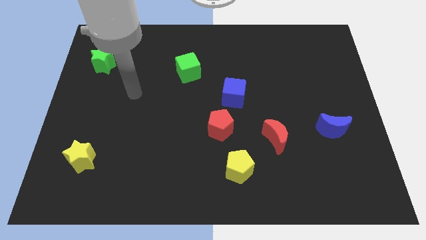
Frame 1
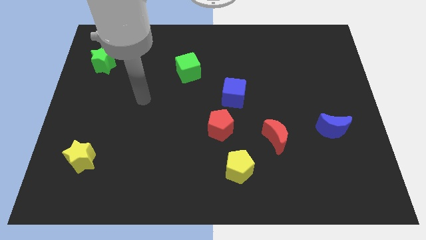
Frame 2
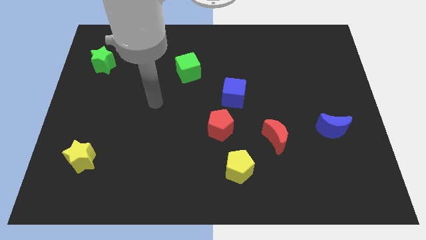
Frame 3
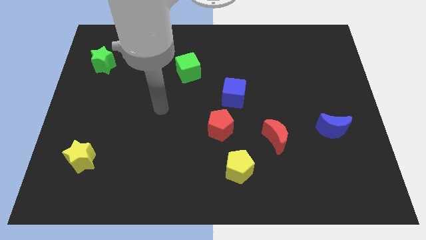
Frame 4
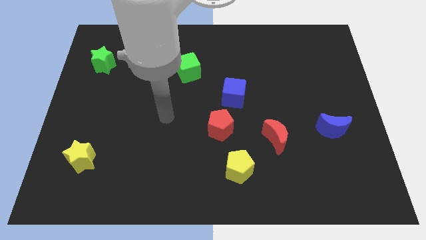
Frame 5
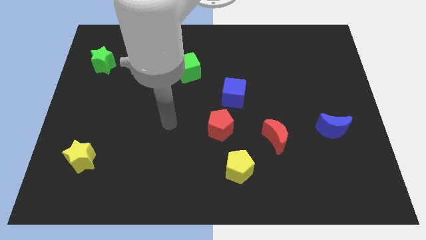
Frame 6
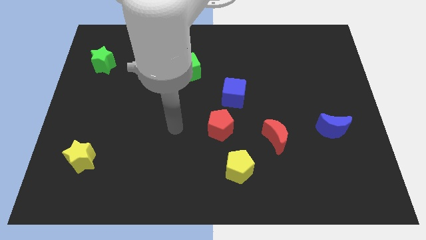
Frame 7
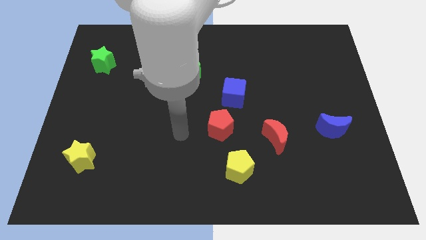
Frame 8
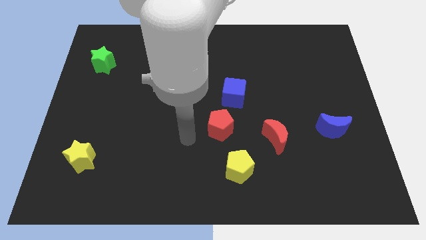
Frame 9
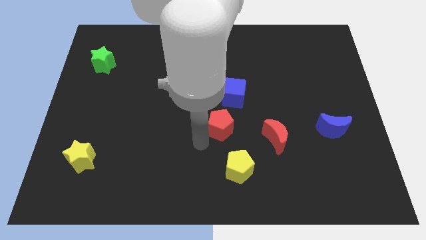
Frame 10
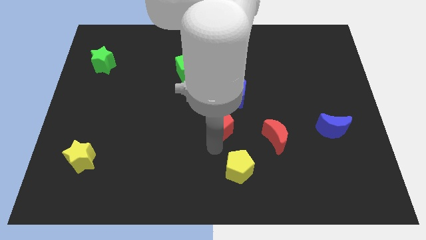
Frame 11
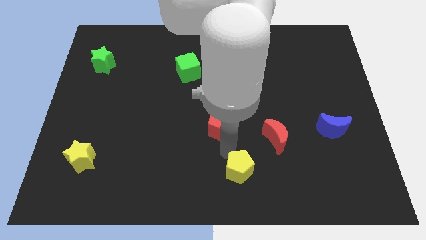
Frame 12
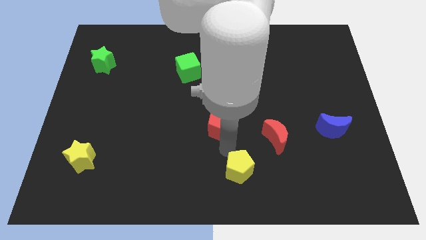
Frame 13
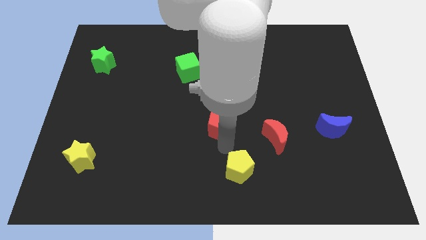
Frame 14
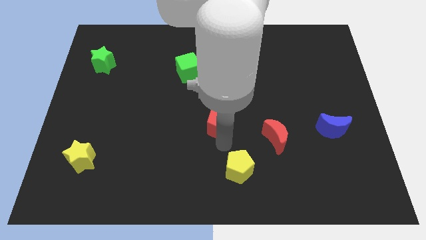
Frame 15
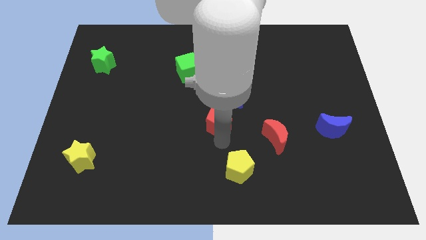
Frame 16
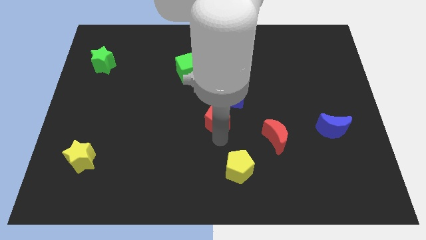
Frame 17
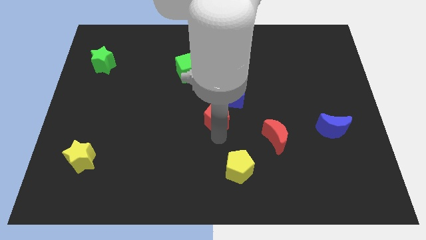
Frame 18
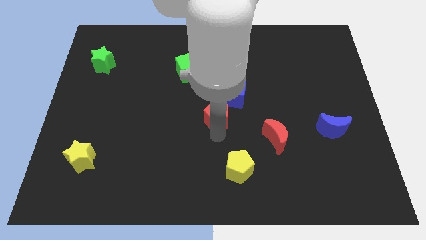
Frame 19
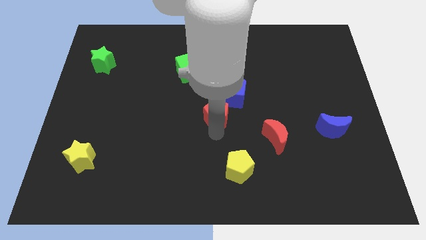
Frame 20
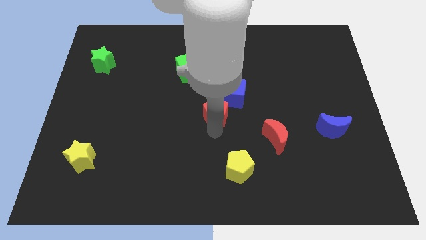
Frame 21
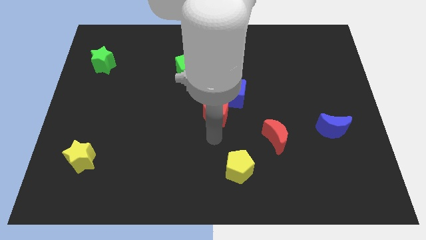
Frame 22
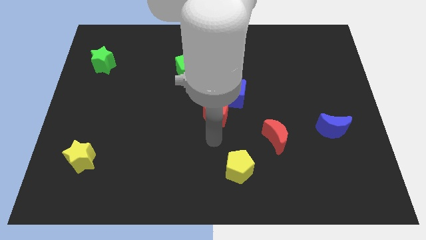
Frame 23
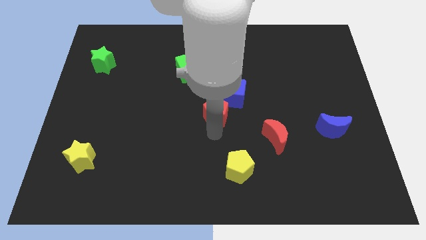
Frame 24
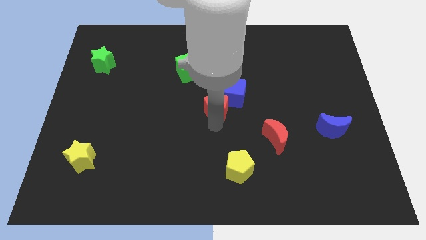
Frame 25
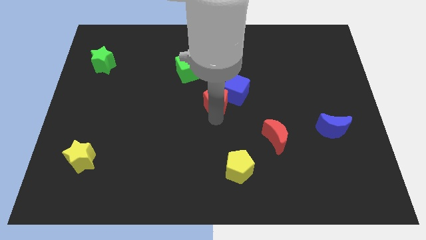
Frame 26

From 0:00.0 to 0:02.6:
slide the red pentagon up a bit

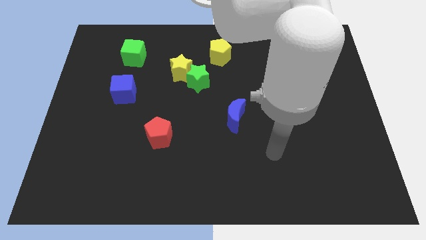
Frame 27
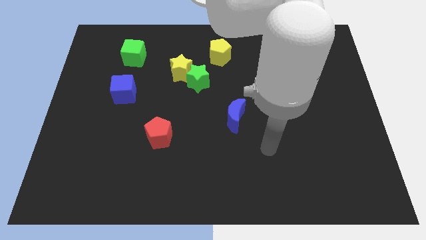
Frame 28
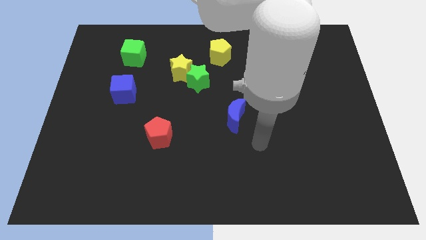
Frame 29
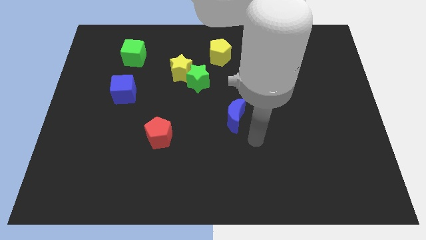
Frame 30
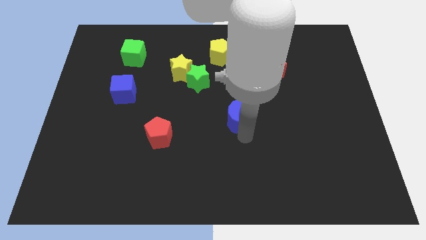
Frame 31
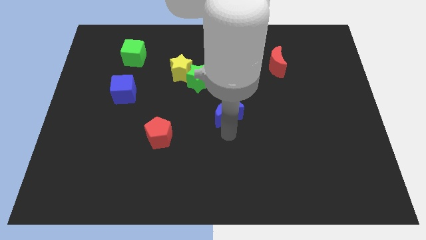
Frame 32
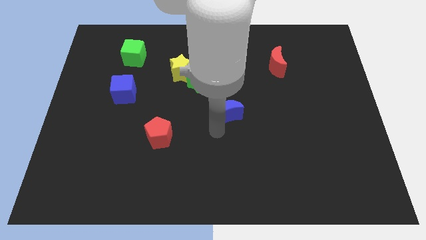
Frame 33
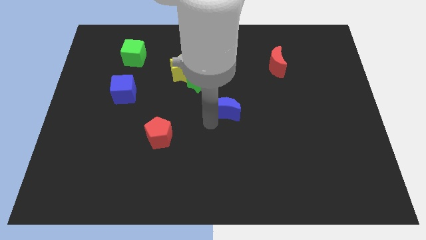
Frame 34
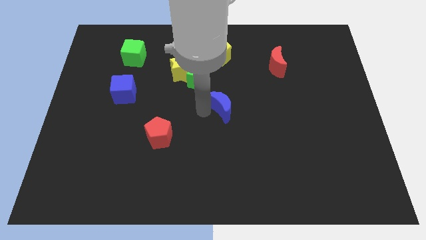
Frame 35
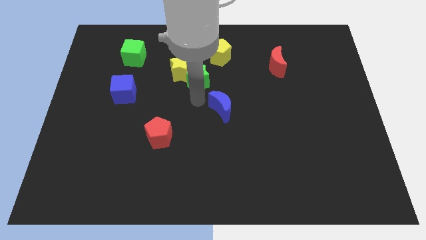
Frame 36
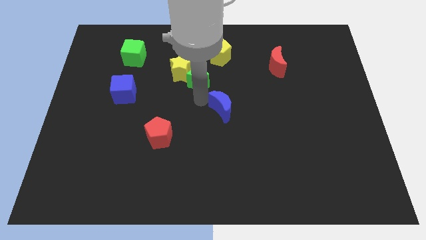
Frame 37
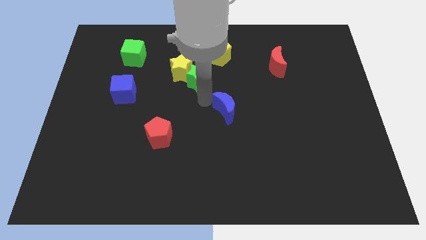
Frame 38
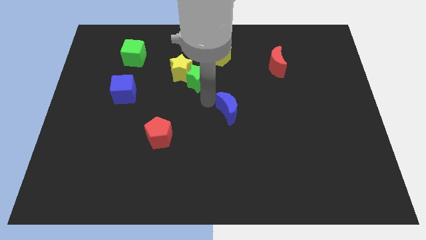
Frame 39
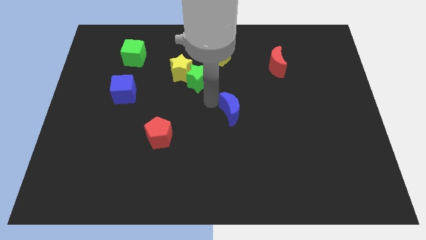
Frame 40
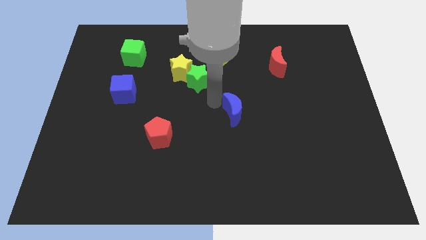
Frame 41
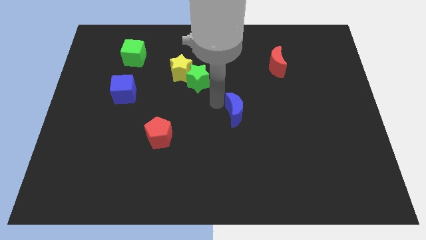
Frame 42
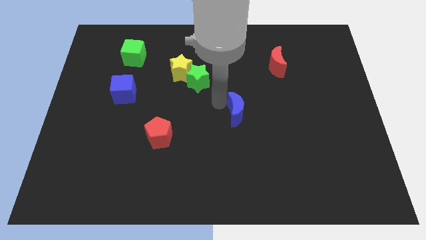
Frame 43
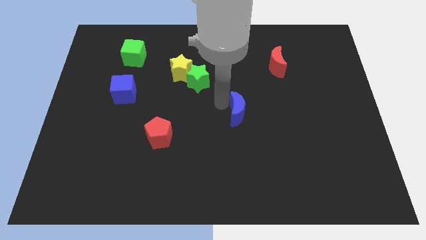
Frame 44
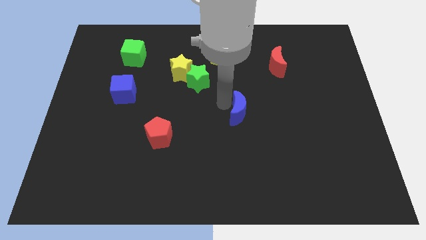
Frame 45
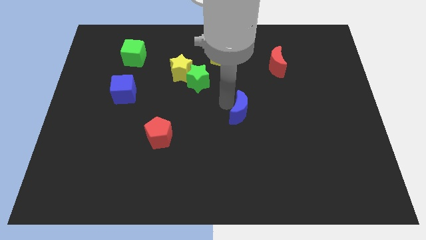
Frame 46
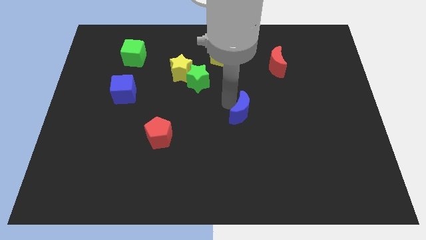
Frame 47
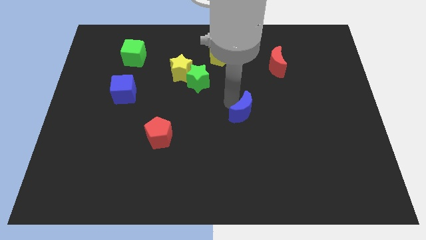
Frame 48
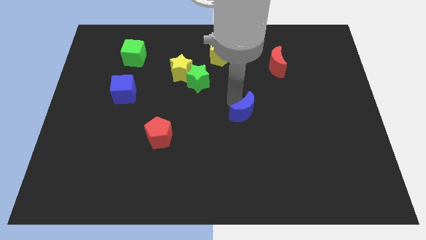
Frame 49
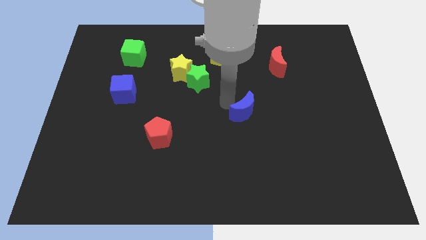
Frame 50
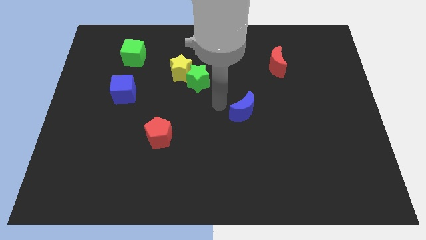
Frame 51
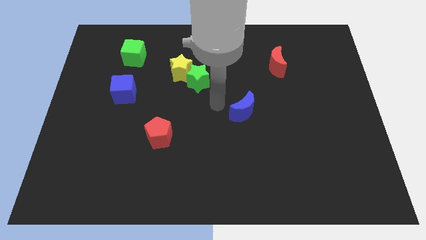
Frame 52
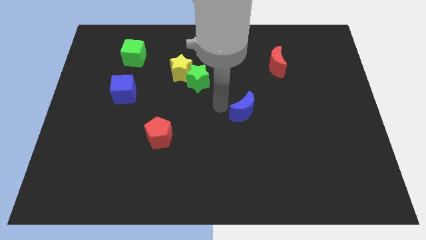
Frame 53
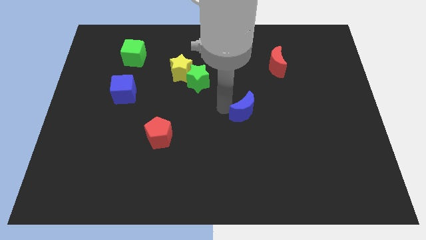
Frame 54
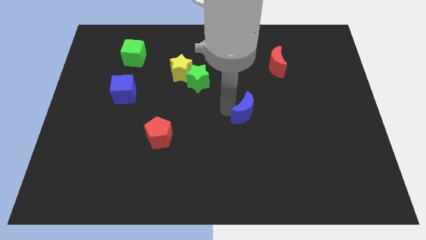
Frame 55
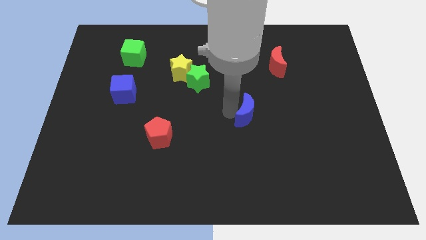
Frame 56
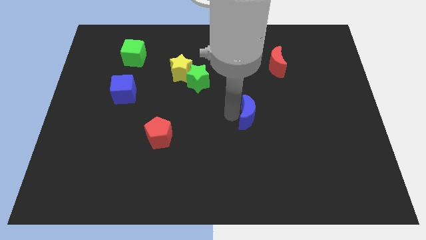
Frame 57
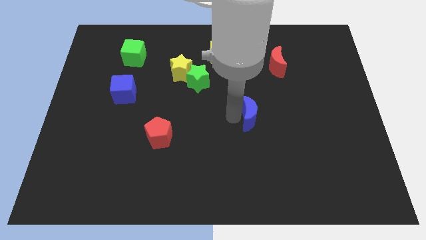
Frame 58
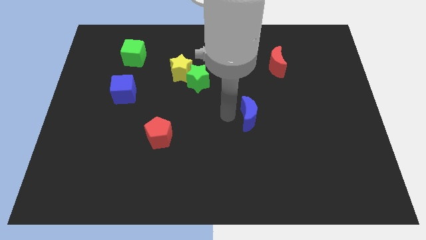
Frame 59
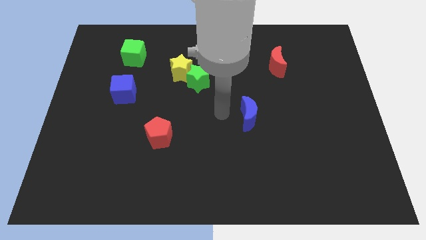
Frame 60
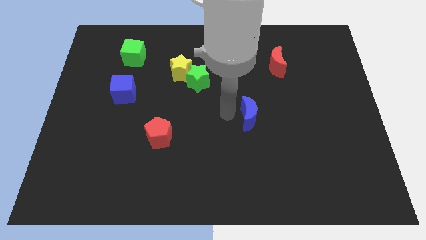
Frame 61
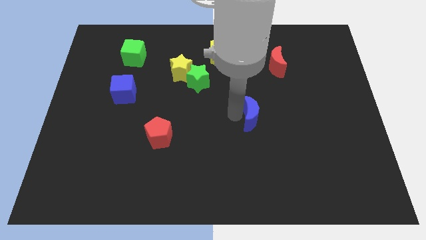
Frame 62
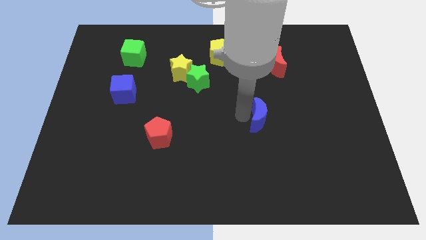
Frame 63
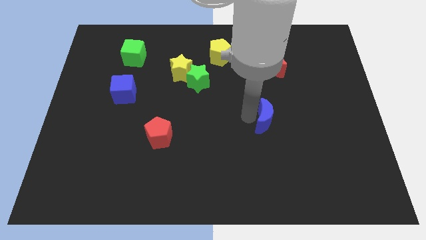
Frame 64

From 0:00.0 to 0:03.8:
slightly slide the blue moon to the right

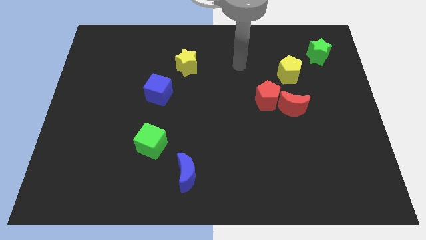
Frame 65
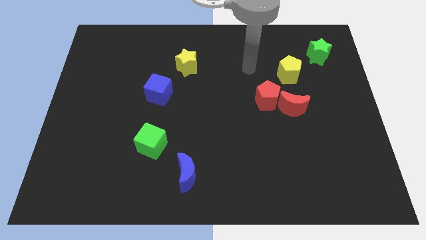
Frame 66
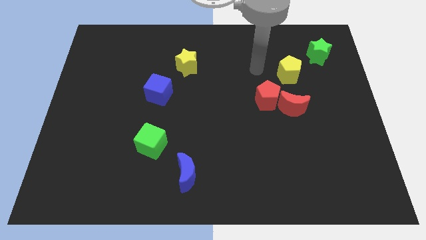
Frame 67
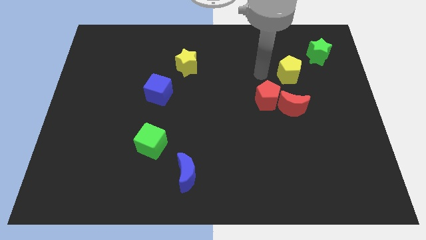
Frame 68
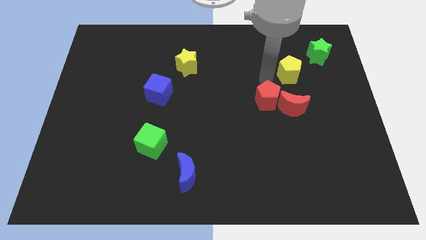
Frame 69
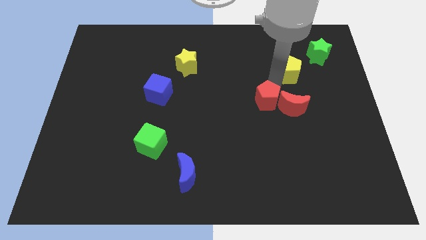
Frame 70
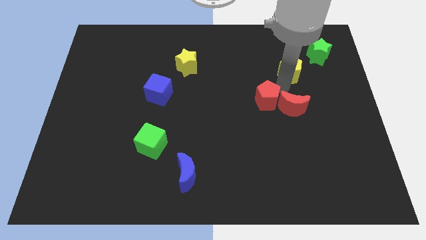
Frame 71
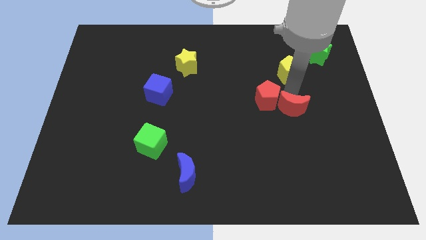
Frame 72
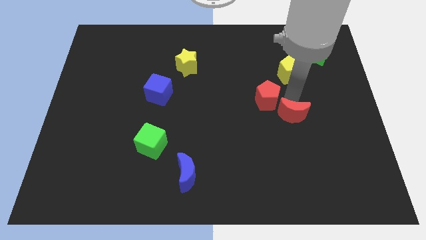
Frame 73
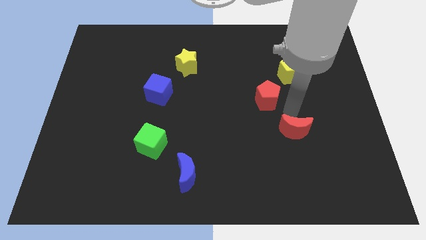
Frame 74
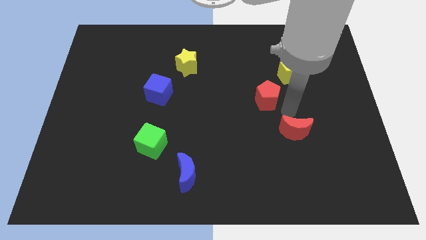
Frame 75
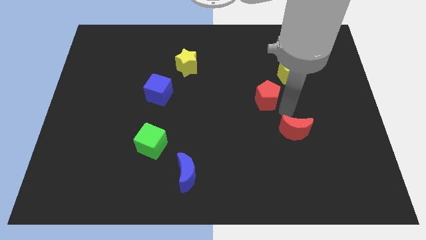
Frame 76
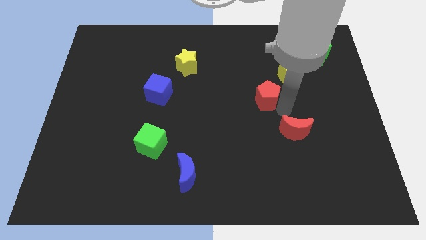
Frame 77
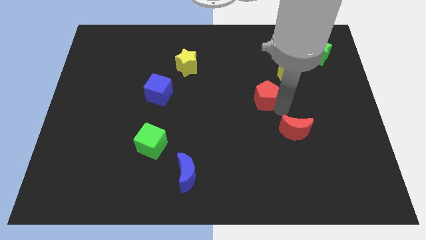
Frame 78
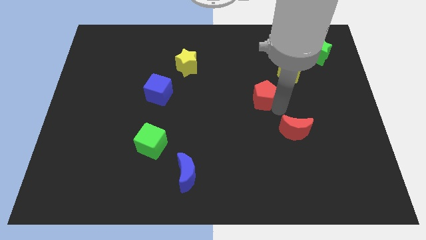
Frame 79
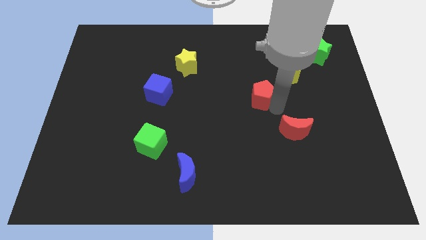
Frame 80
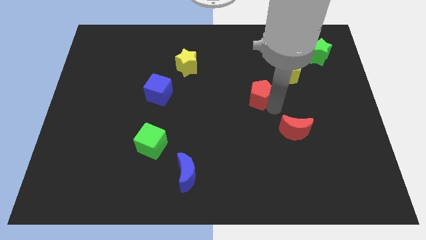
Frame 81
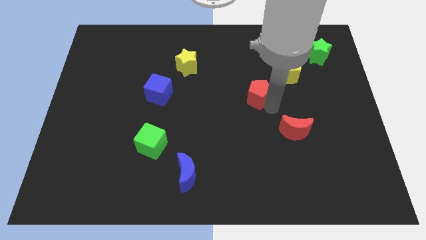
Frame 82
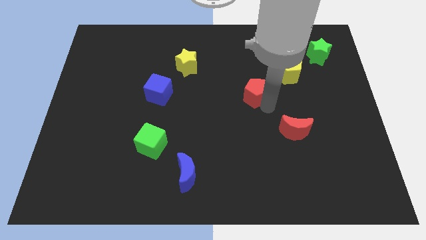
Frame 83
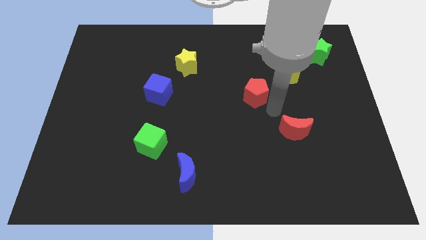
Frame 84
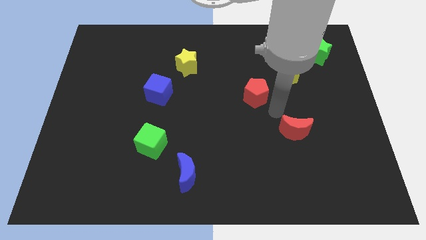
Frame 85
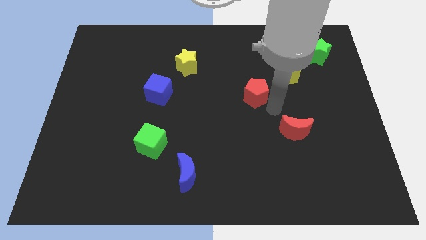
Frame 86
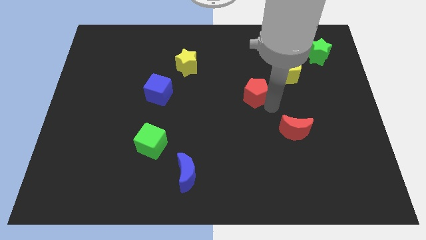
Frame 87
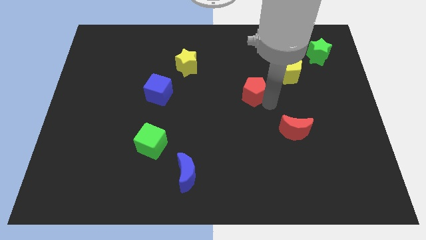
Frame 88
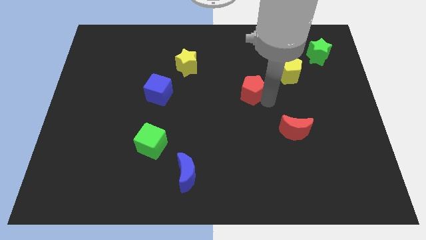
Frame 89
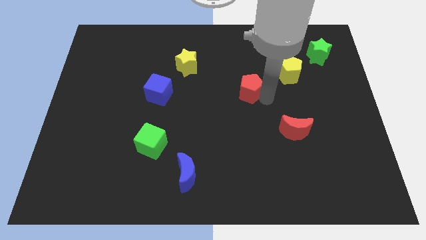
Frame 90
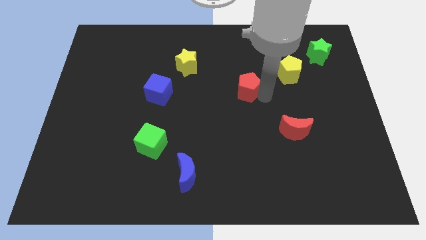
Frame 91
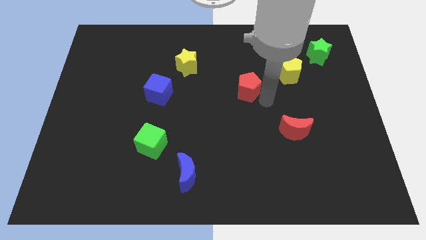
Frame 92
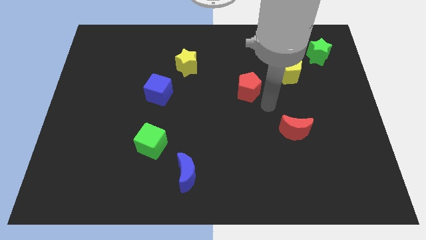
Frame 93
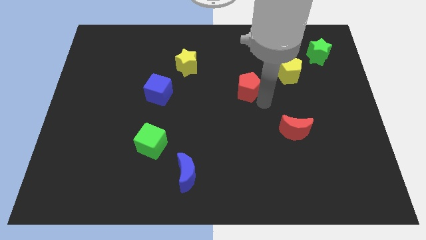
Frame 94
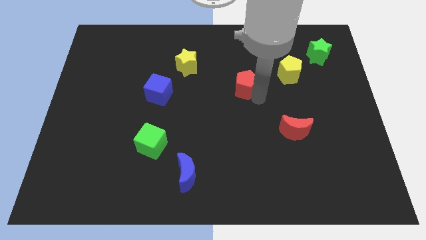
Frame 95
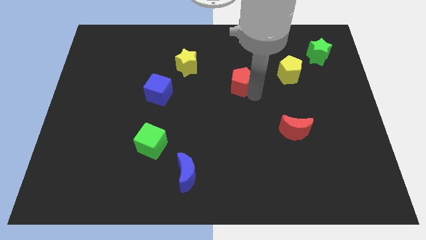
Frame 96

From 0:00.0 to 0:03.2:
push the red pentagon somewhat upwards and then to the left
